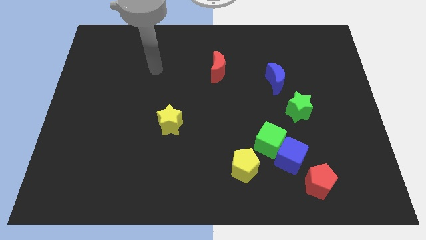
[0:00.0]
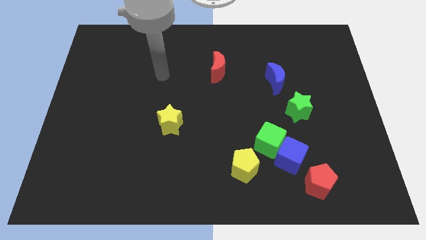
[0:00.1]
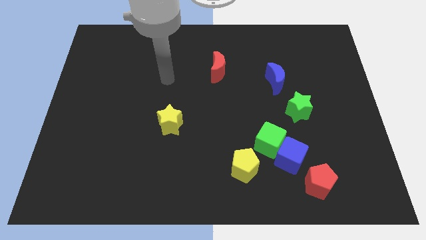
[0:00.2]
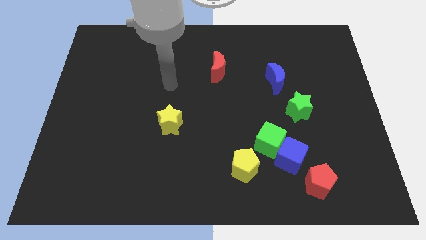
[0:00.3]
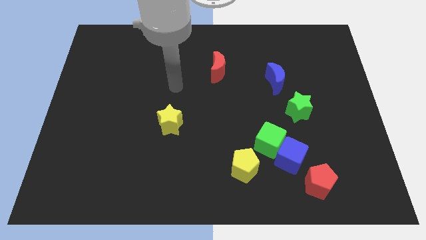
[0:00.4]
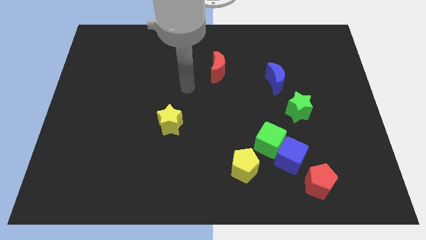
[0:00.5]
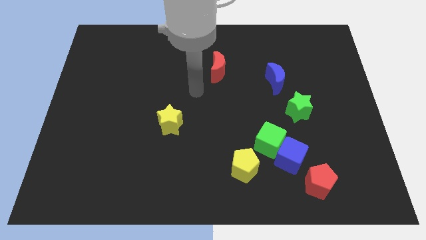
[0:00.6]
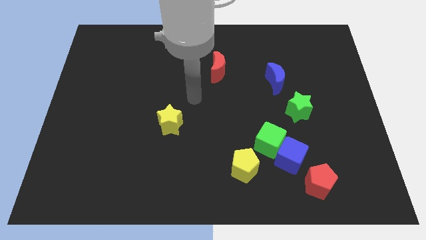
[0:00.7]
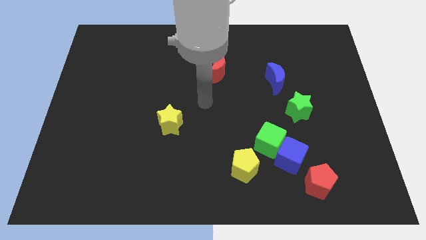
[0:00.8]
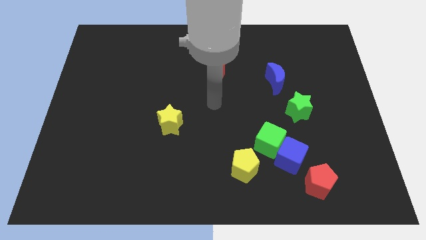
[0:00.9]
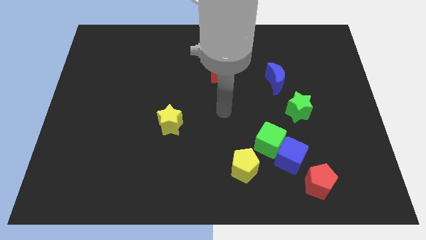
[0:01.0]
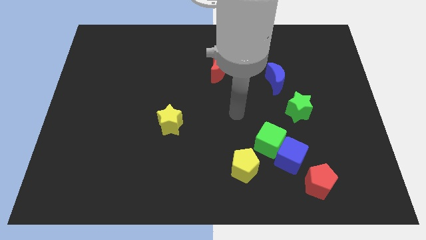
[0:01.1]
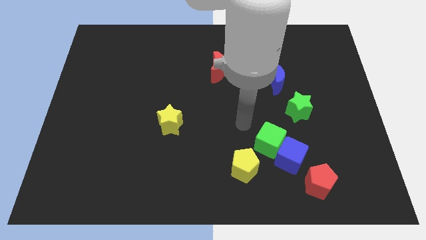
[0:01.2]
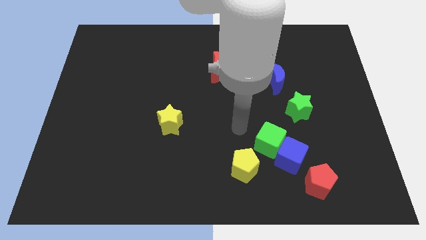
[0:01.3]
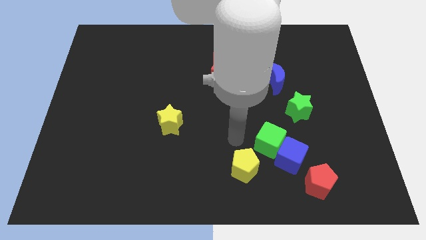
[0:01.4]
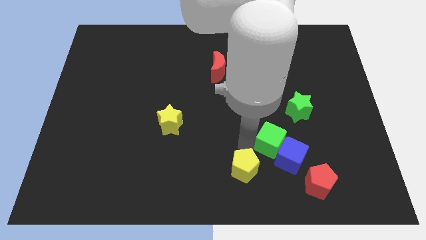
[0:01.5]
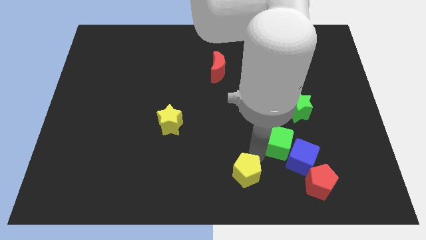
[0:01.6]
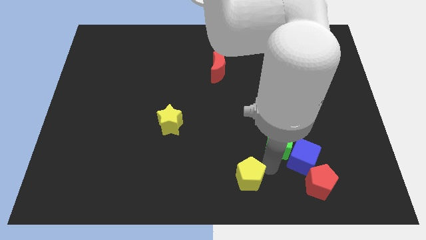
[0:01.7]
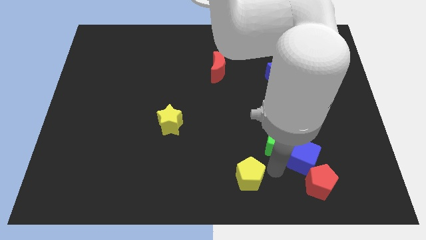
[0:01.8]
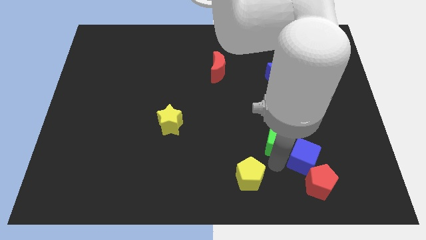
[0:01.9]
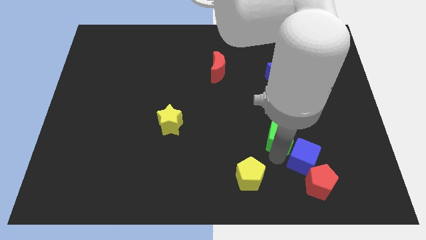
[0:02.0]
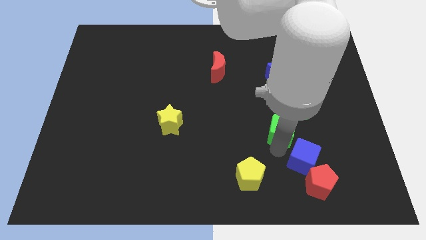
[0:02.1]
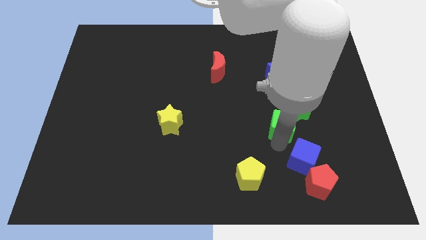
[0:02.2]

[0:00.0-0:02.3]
move the green cube away from the blue cube and yellow pentagon

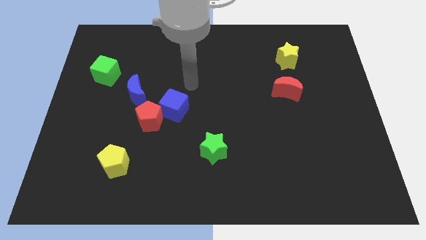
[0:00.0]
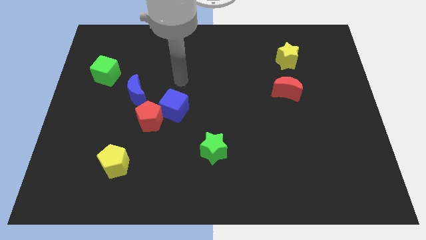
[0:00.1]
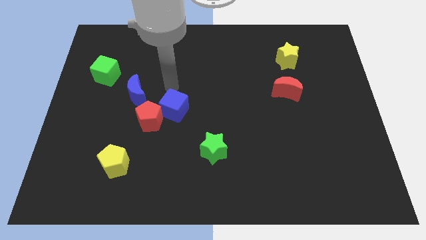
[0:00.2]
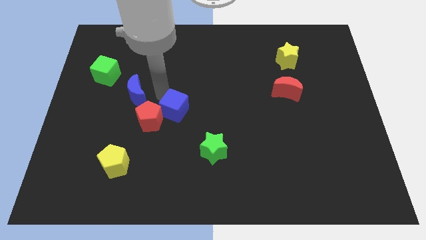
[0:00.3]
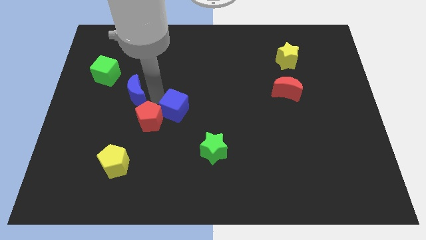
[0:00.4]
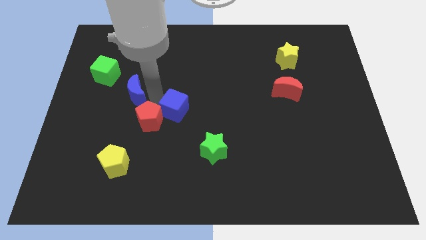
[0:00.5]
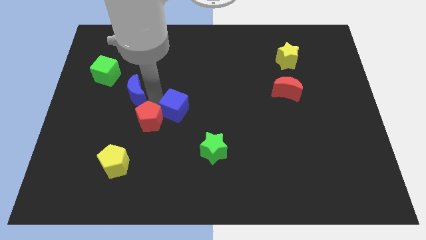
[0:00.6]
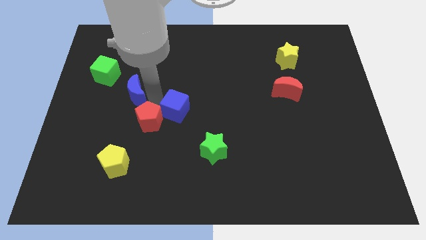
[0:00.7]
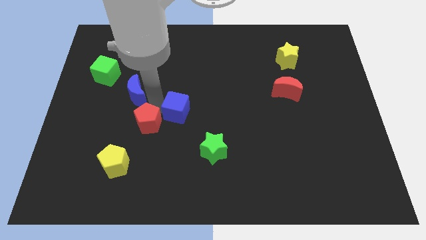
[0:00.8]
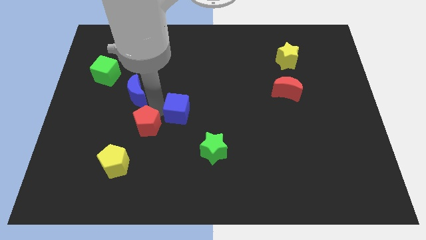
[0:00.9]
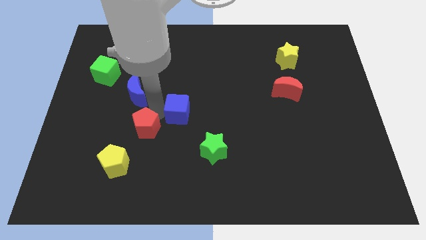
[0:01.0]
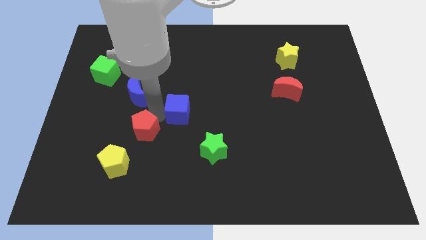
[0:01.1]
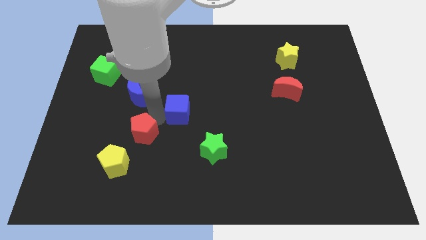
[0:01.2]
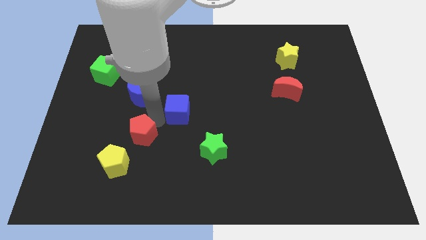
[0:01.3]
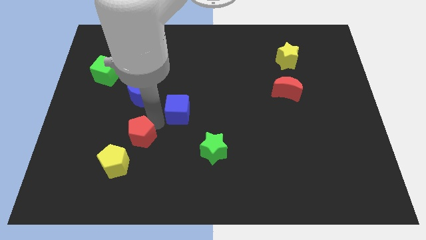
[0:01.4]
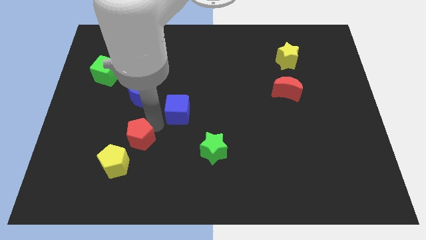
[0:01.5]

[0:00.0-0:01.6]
separate the red pentagon from the blue cube and blue moon

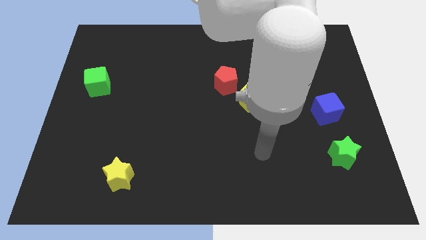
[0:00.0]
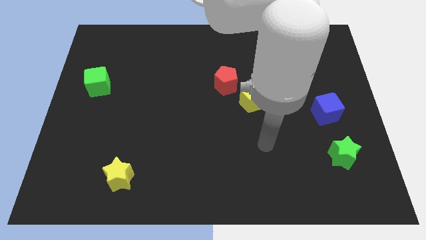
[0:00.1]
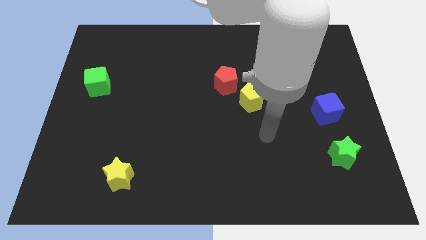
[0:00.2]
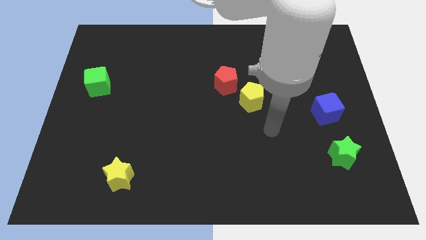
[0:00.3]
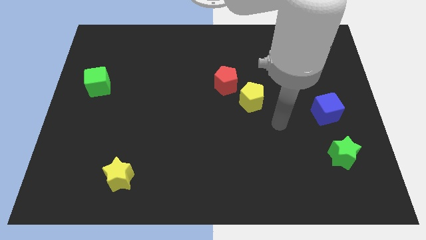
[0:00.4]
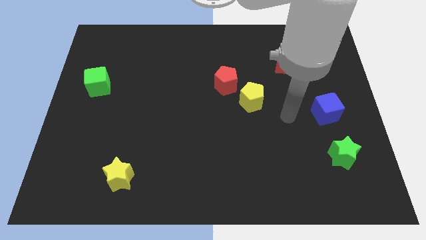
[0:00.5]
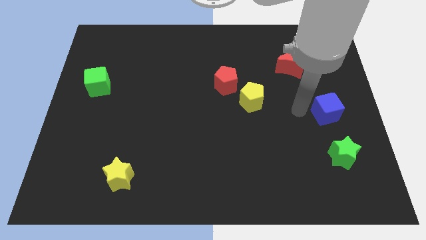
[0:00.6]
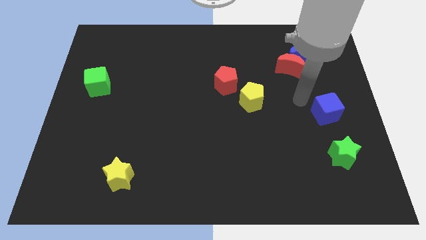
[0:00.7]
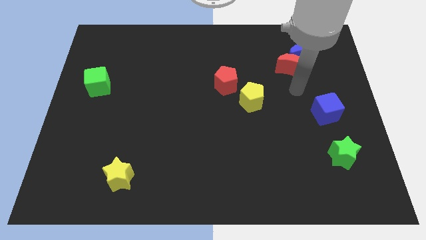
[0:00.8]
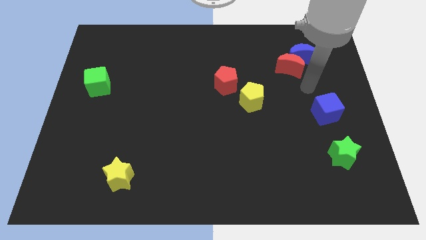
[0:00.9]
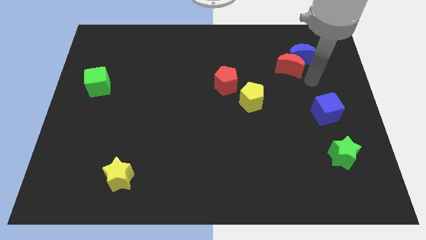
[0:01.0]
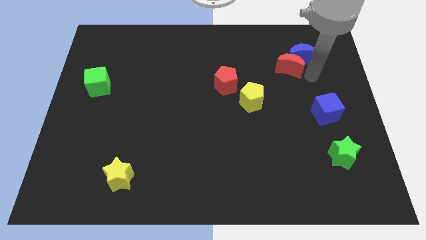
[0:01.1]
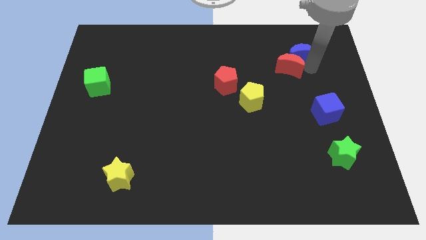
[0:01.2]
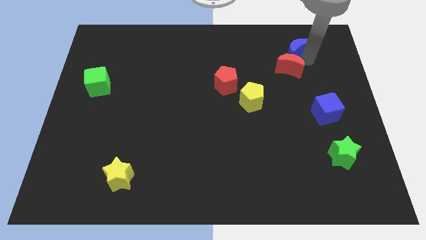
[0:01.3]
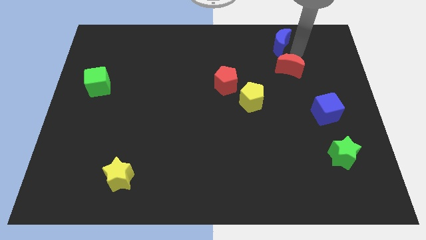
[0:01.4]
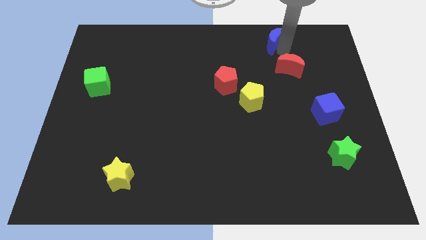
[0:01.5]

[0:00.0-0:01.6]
separate the red moon from the blue moon

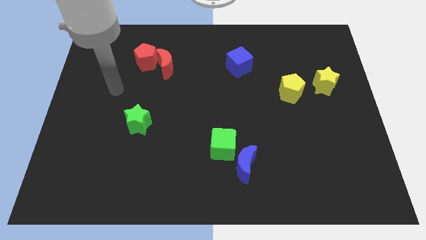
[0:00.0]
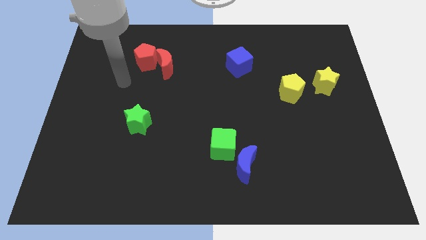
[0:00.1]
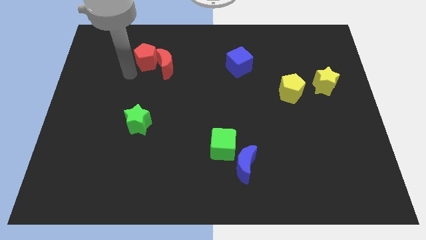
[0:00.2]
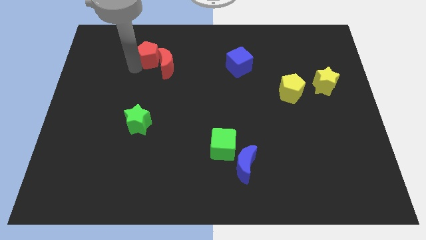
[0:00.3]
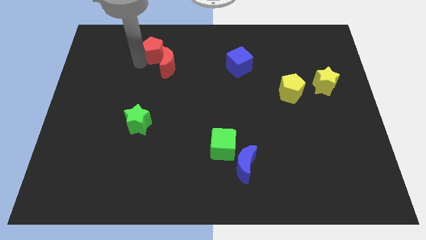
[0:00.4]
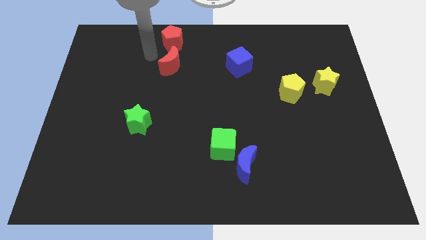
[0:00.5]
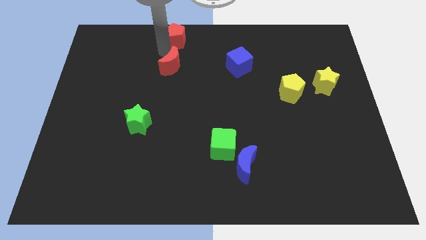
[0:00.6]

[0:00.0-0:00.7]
separate the red moon from the red pentagon

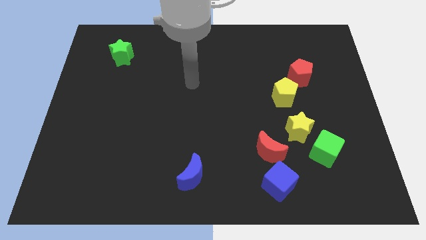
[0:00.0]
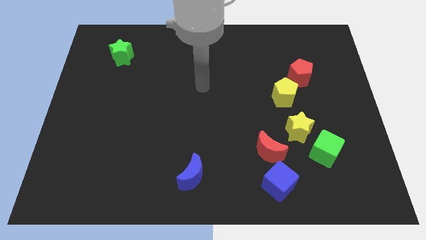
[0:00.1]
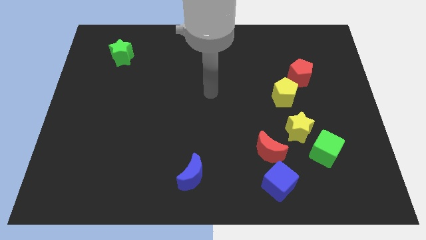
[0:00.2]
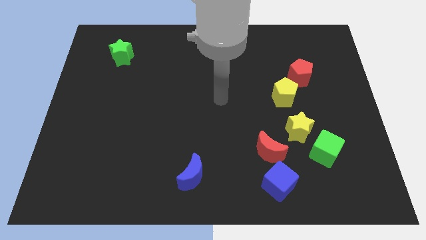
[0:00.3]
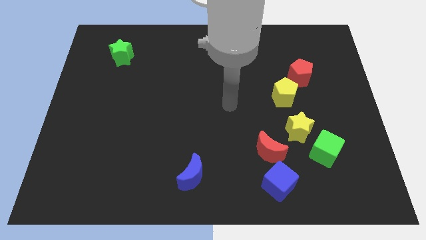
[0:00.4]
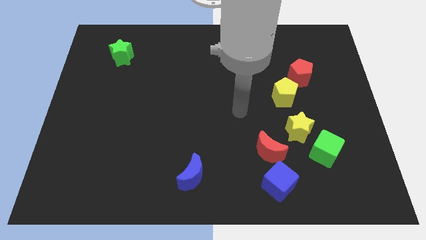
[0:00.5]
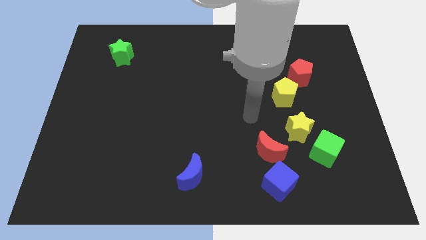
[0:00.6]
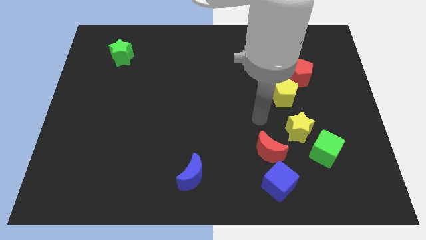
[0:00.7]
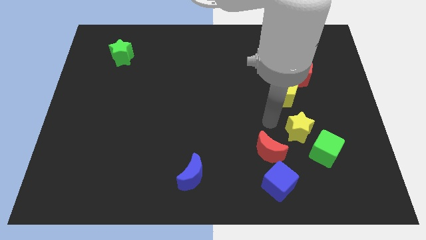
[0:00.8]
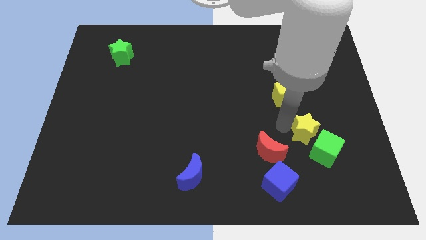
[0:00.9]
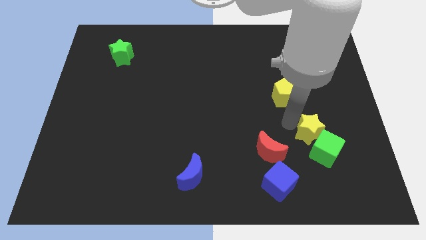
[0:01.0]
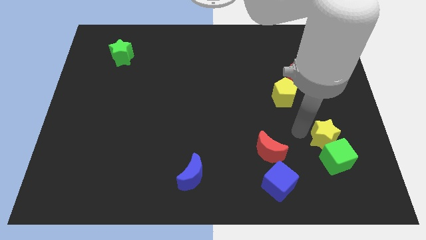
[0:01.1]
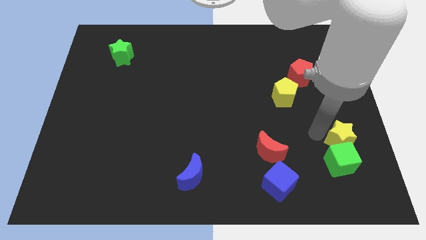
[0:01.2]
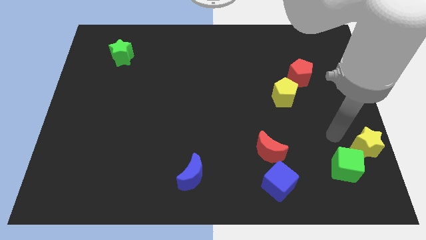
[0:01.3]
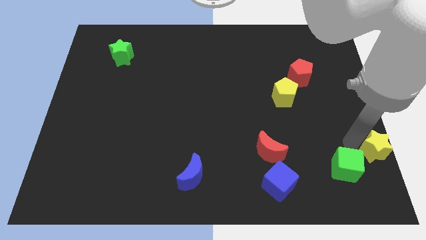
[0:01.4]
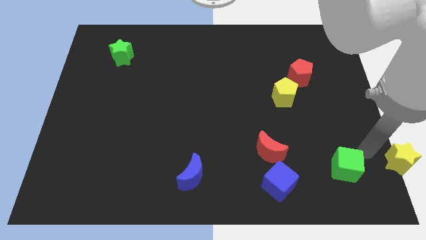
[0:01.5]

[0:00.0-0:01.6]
pull the green cube apart from the yellow star

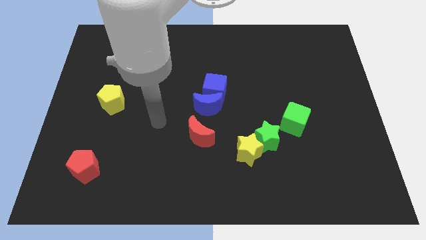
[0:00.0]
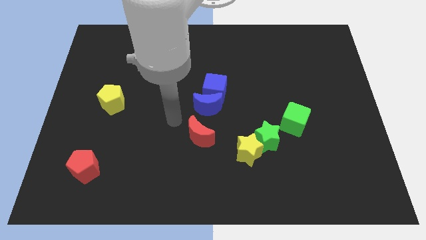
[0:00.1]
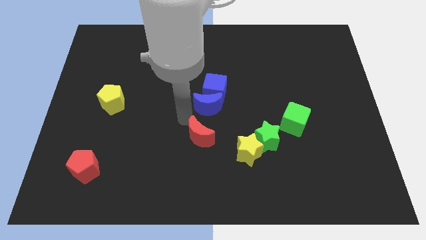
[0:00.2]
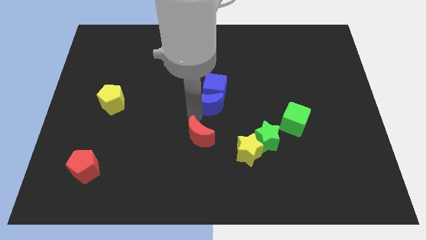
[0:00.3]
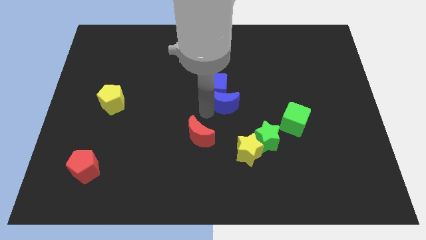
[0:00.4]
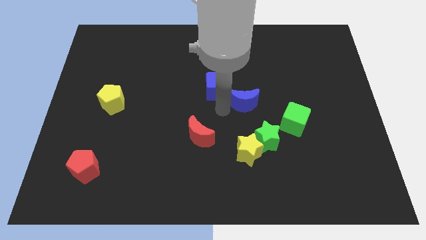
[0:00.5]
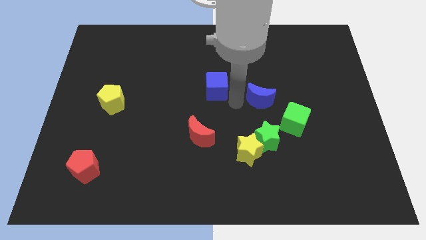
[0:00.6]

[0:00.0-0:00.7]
pull the blue cube apart from the blue moon

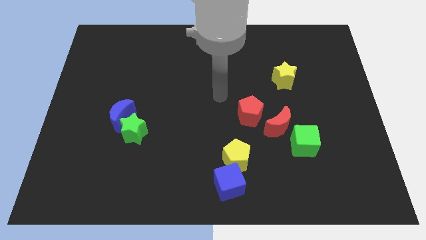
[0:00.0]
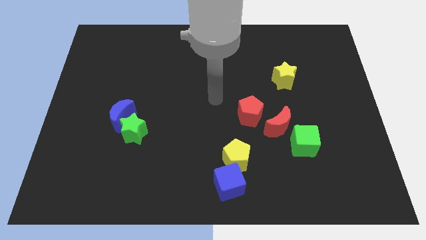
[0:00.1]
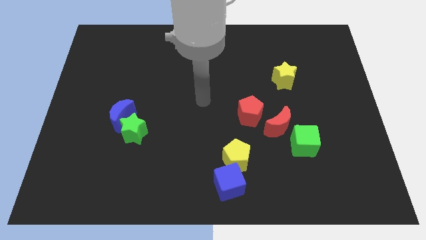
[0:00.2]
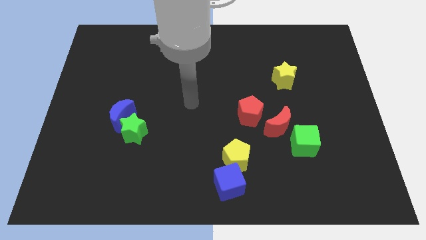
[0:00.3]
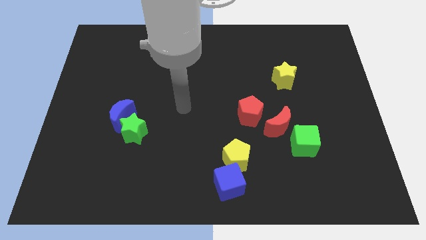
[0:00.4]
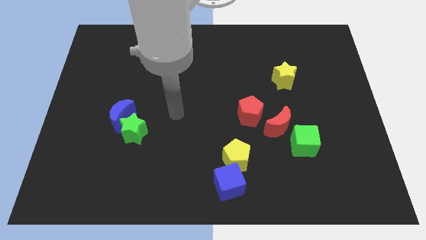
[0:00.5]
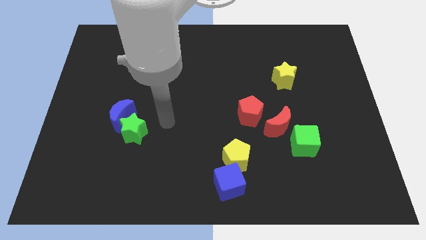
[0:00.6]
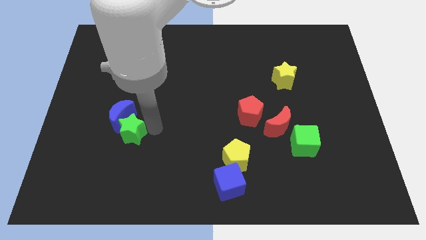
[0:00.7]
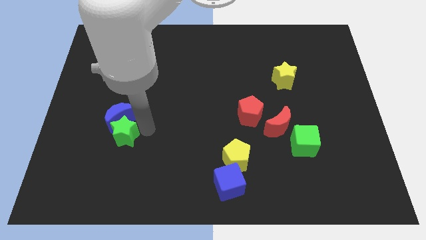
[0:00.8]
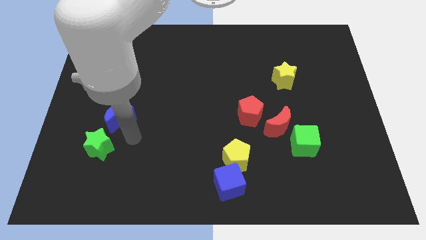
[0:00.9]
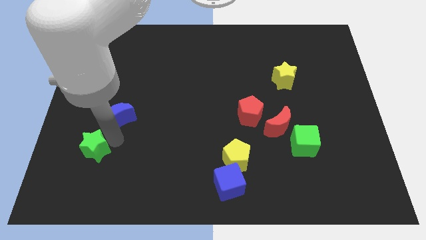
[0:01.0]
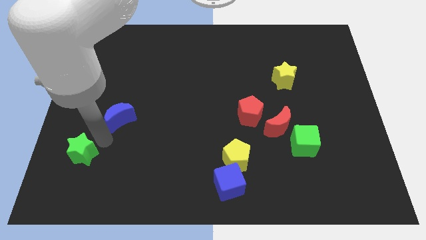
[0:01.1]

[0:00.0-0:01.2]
separate the blue moon from the green star
